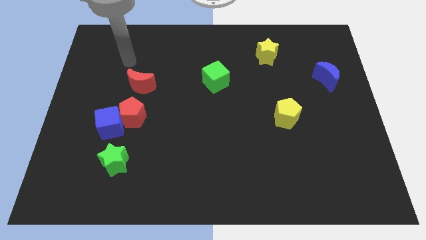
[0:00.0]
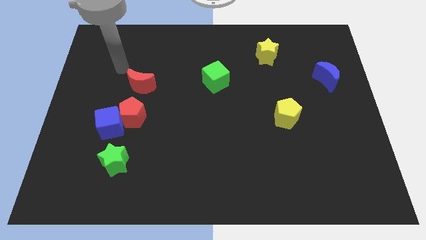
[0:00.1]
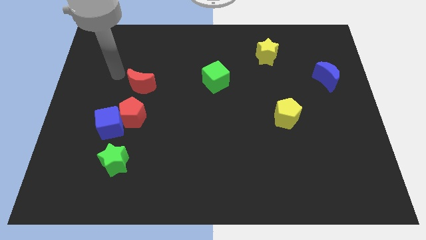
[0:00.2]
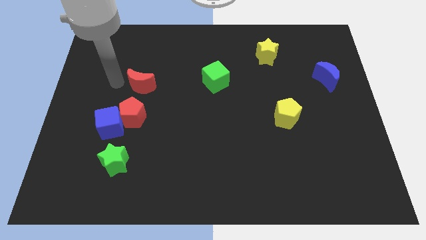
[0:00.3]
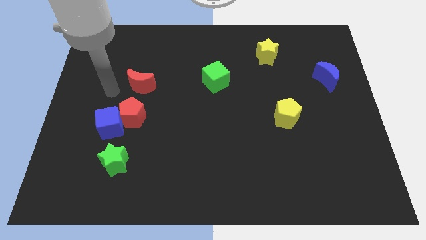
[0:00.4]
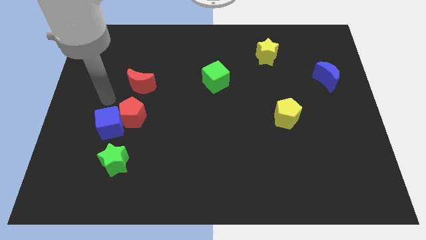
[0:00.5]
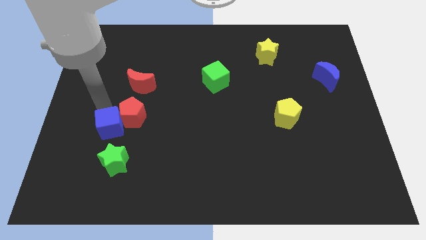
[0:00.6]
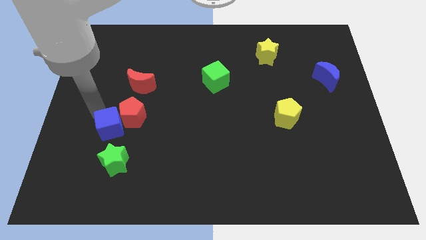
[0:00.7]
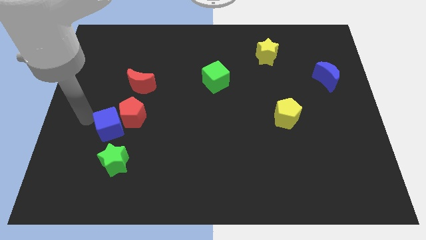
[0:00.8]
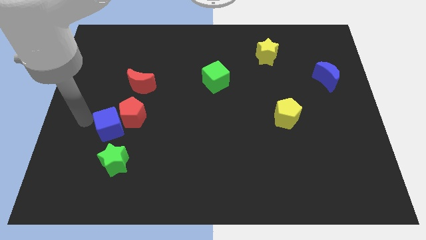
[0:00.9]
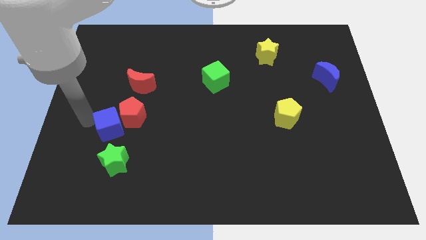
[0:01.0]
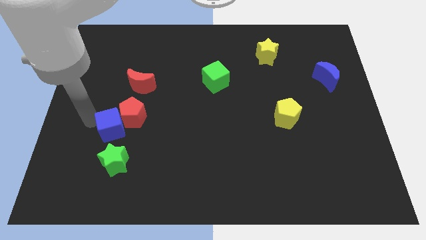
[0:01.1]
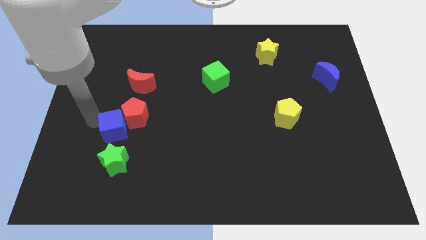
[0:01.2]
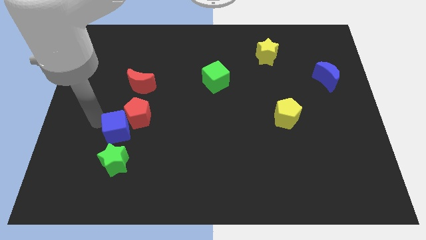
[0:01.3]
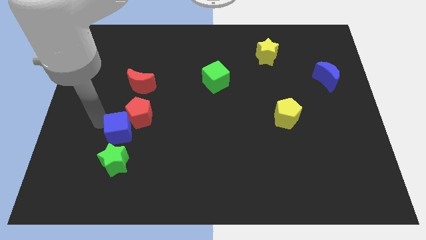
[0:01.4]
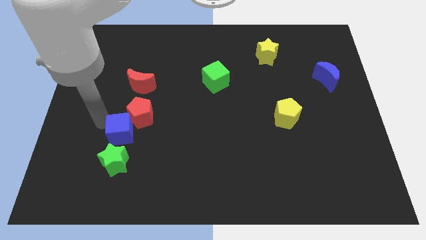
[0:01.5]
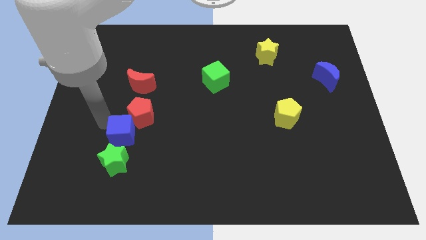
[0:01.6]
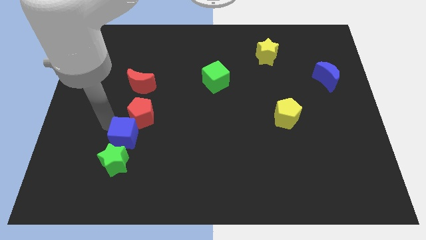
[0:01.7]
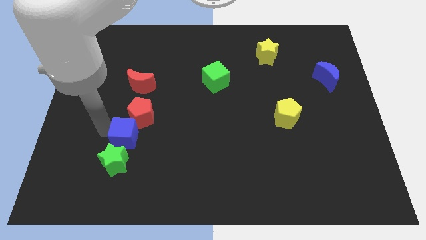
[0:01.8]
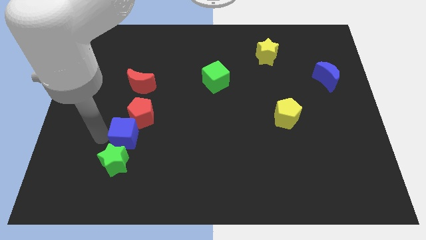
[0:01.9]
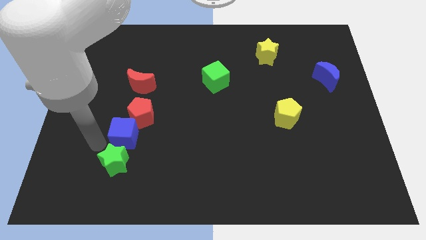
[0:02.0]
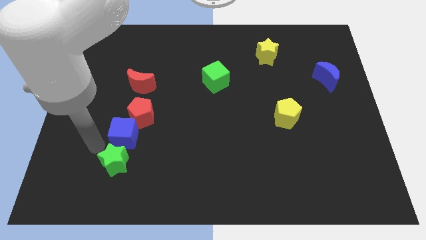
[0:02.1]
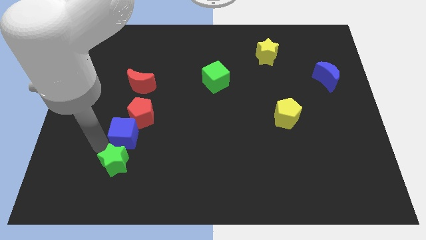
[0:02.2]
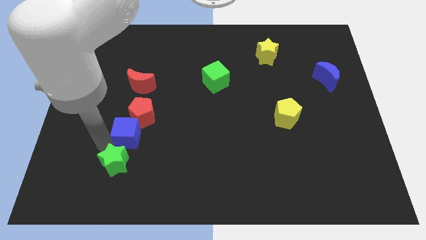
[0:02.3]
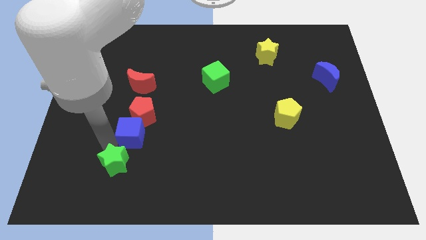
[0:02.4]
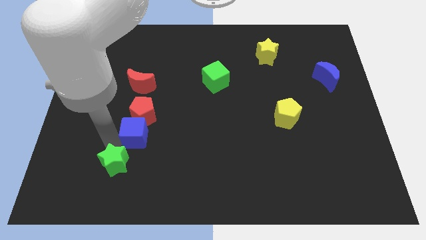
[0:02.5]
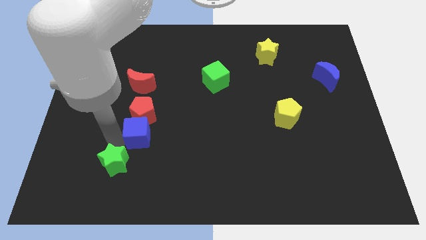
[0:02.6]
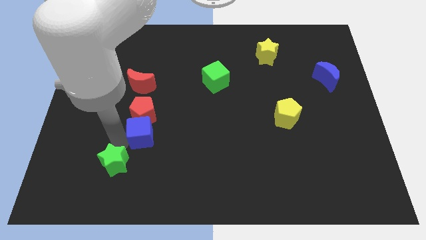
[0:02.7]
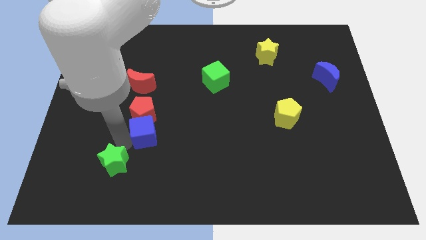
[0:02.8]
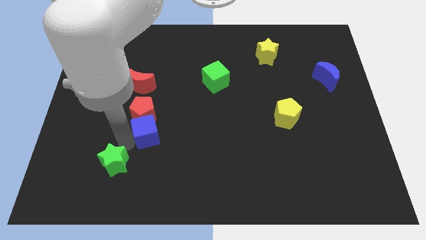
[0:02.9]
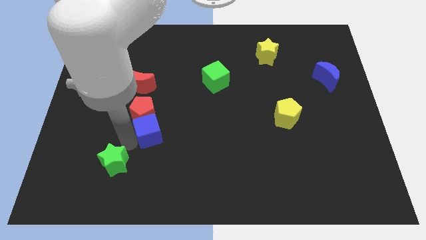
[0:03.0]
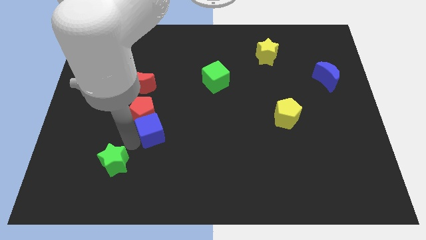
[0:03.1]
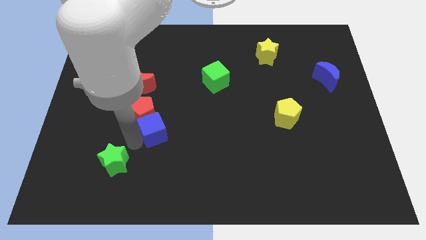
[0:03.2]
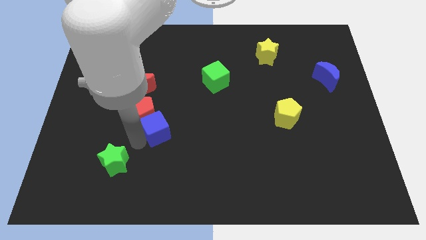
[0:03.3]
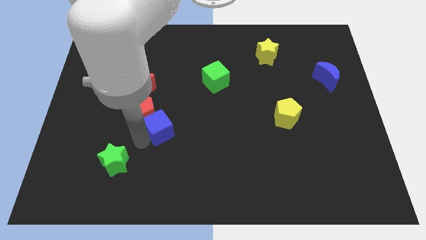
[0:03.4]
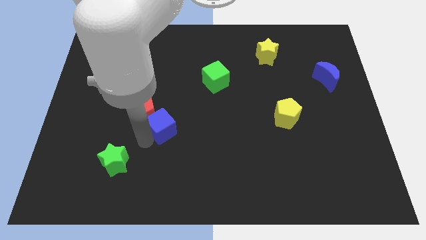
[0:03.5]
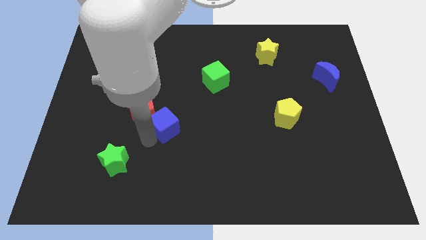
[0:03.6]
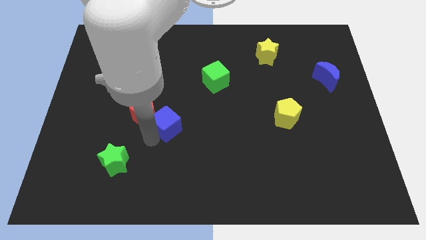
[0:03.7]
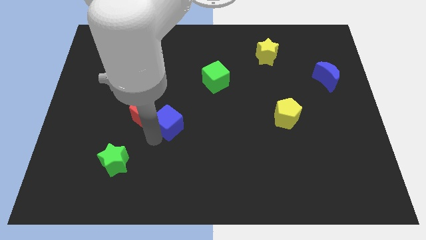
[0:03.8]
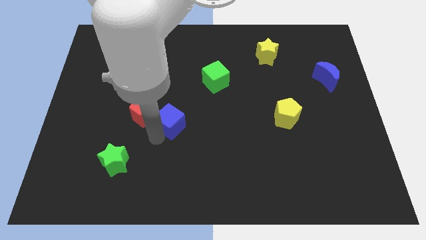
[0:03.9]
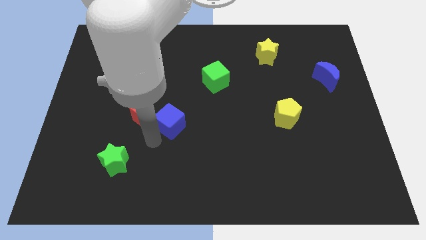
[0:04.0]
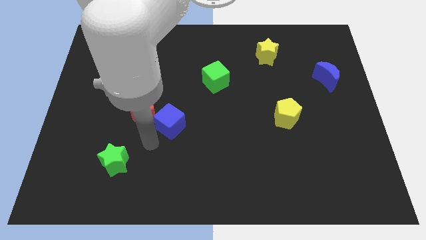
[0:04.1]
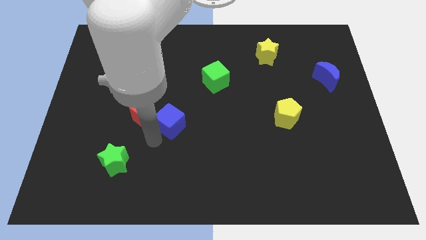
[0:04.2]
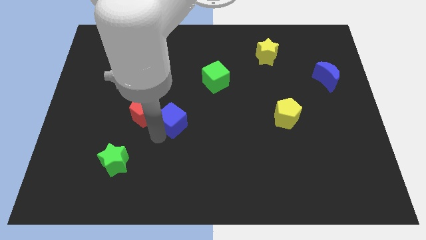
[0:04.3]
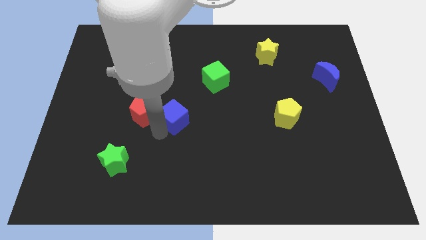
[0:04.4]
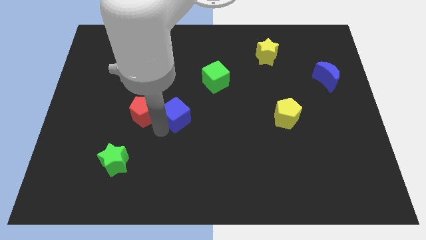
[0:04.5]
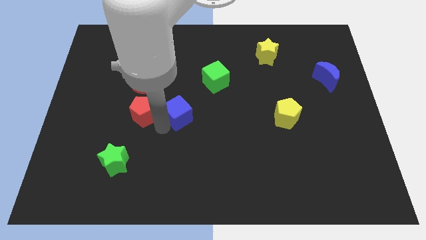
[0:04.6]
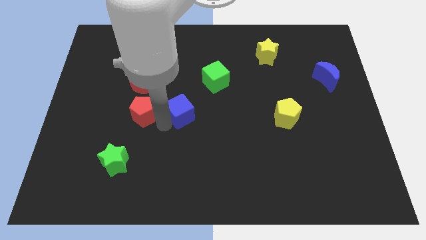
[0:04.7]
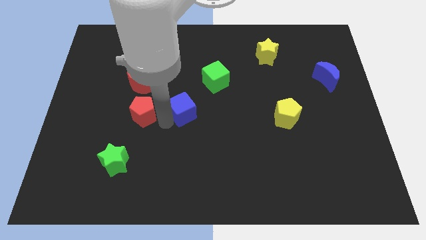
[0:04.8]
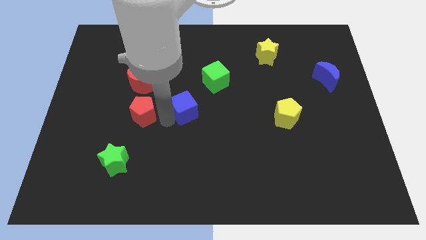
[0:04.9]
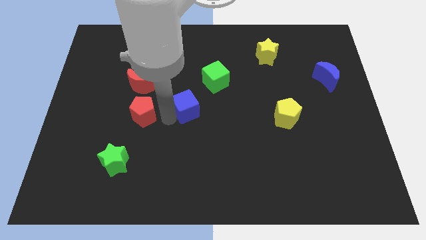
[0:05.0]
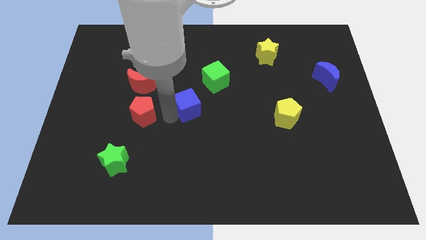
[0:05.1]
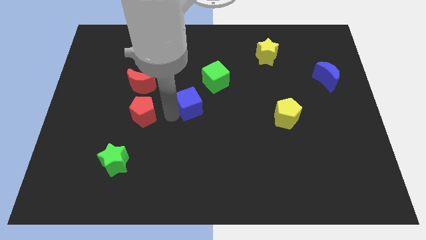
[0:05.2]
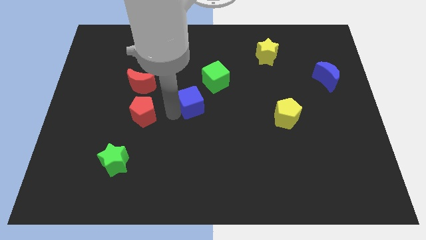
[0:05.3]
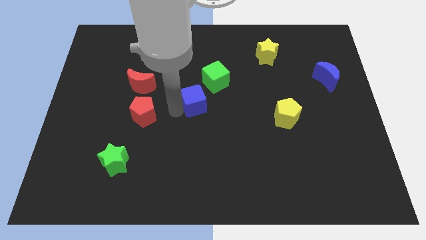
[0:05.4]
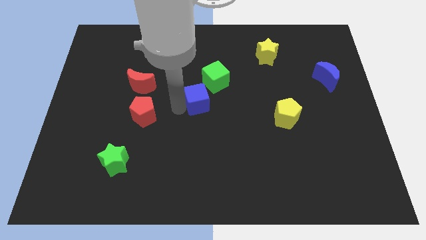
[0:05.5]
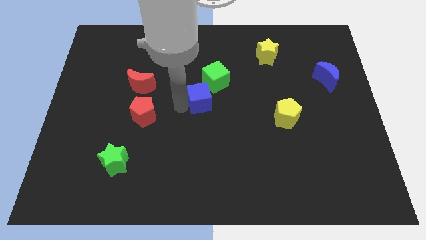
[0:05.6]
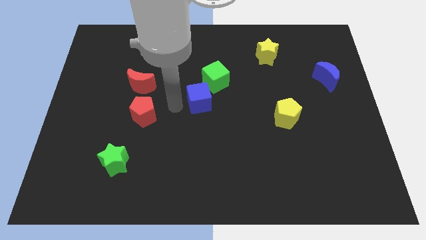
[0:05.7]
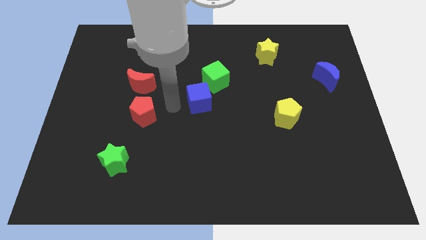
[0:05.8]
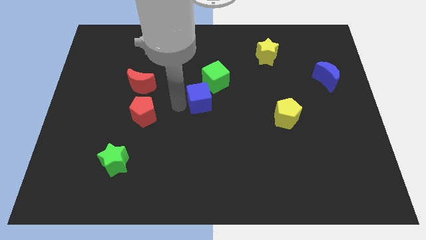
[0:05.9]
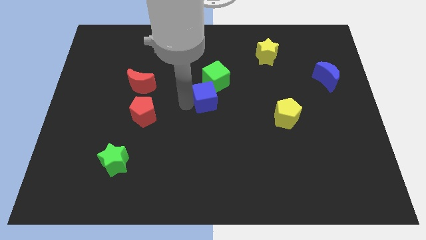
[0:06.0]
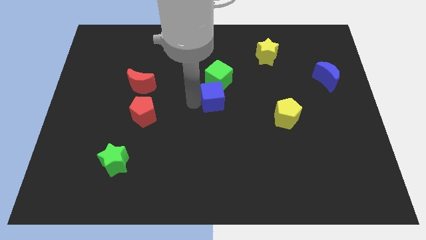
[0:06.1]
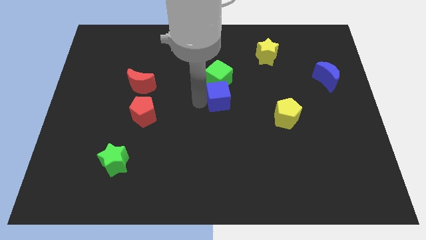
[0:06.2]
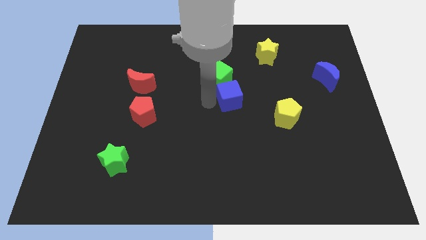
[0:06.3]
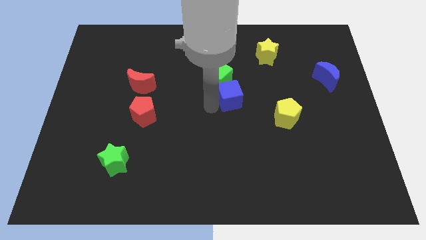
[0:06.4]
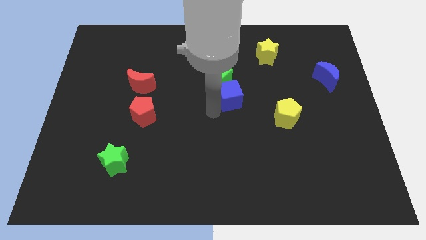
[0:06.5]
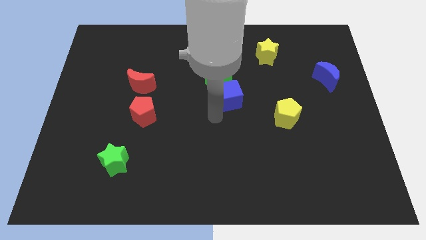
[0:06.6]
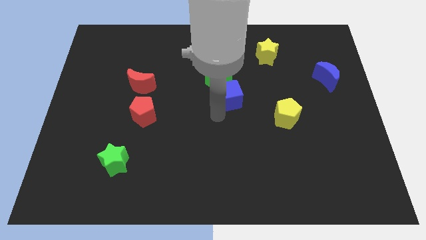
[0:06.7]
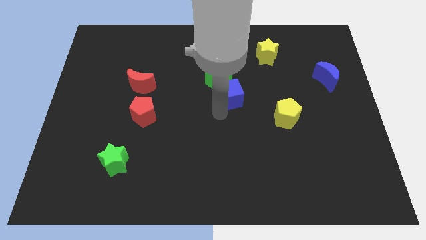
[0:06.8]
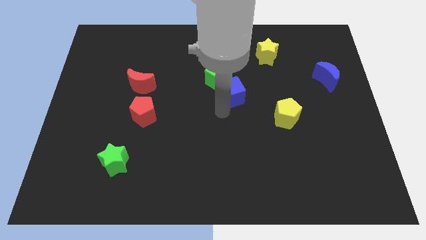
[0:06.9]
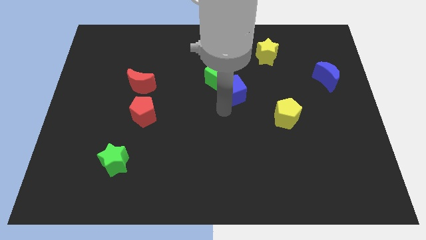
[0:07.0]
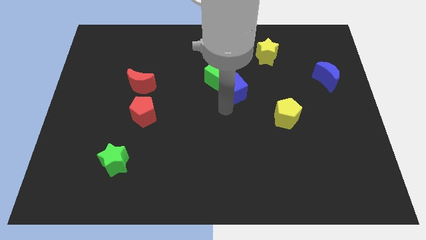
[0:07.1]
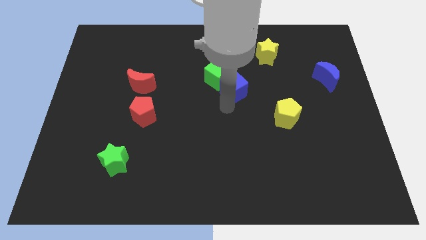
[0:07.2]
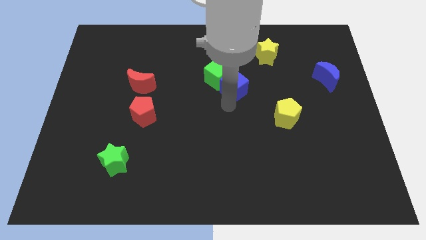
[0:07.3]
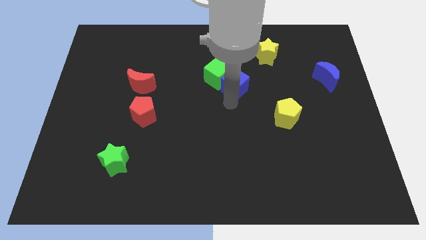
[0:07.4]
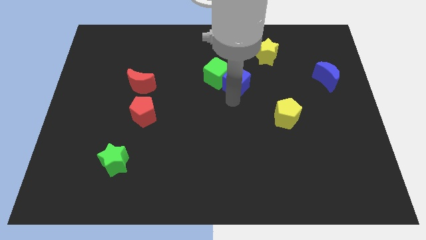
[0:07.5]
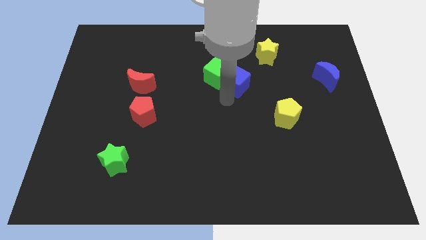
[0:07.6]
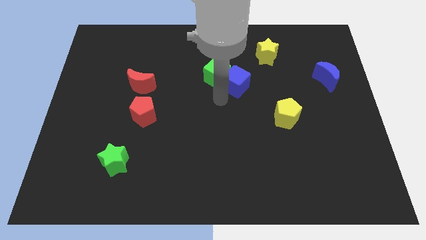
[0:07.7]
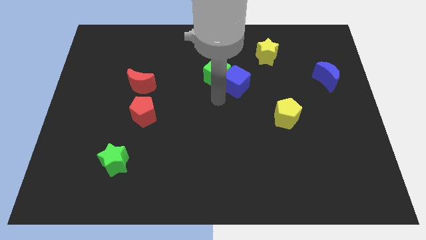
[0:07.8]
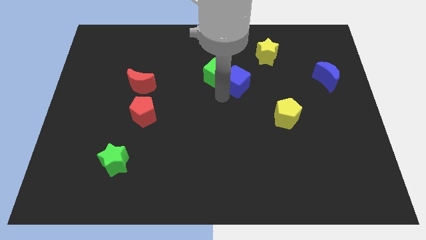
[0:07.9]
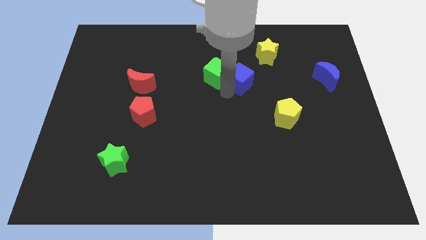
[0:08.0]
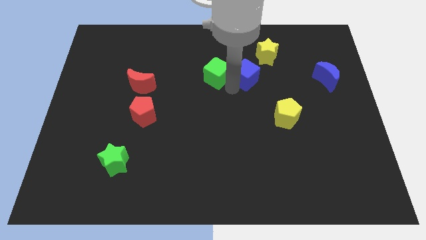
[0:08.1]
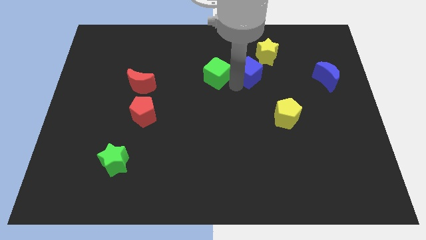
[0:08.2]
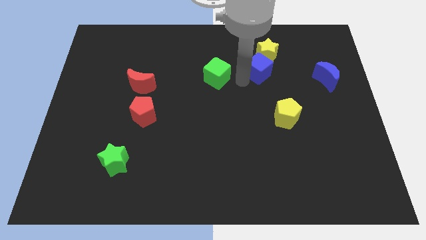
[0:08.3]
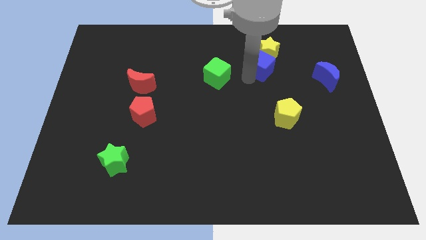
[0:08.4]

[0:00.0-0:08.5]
push the blue cube to the yellow star
